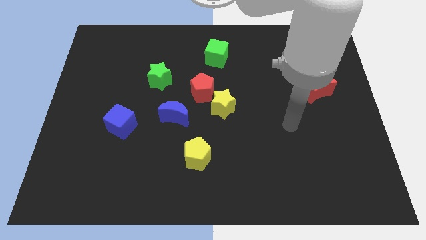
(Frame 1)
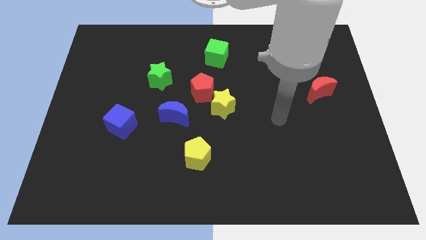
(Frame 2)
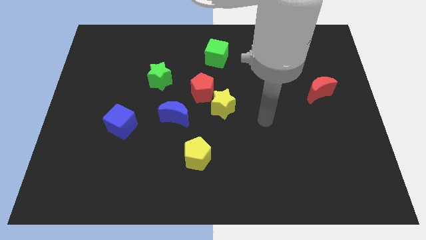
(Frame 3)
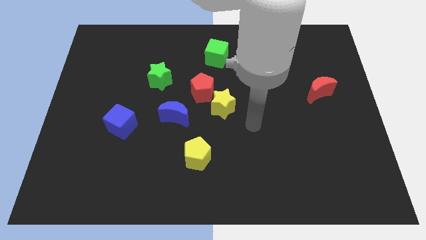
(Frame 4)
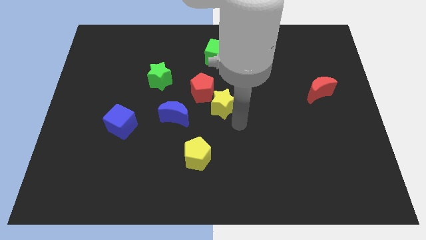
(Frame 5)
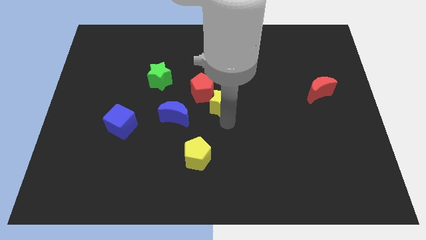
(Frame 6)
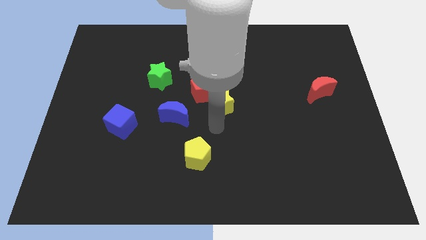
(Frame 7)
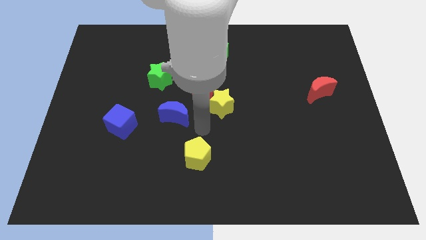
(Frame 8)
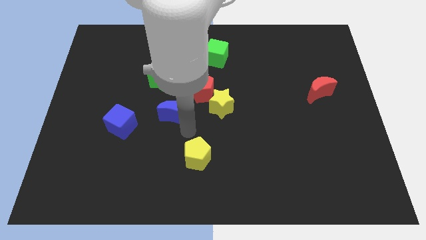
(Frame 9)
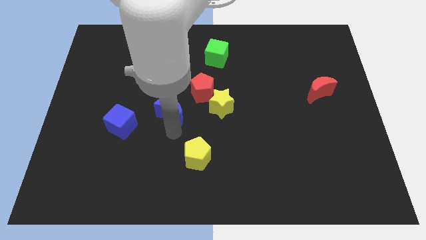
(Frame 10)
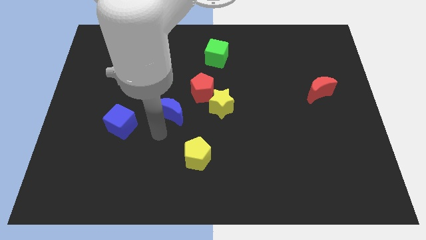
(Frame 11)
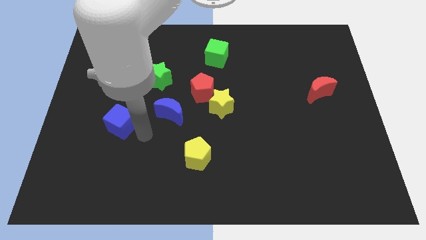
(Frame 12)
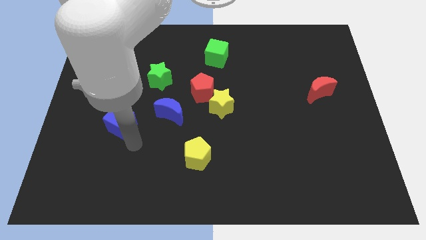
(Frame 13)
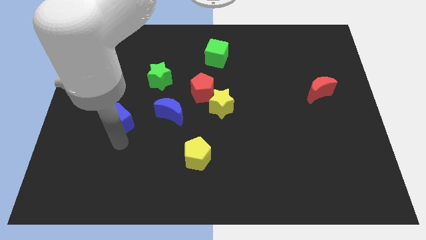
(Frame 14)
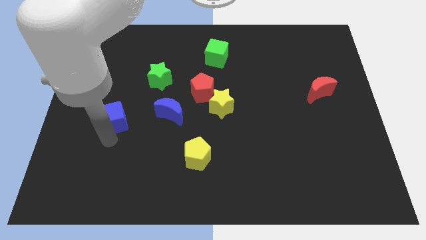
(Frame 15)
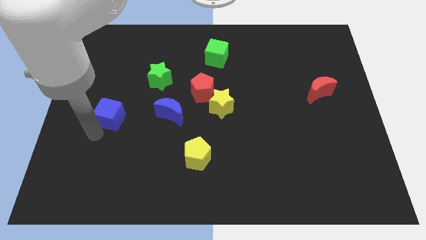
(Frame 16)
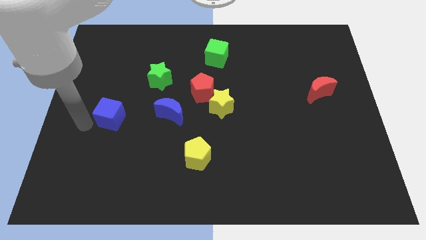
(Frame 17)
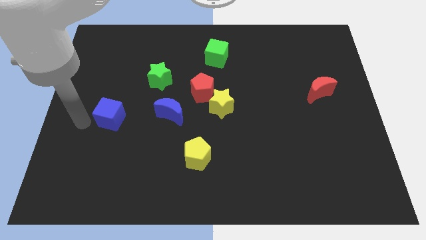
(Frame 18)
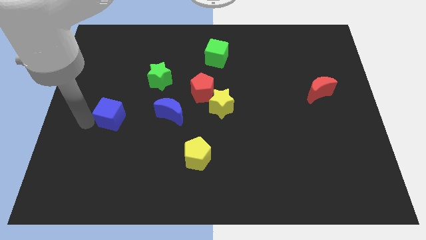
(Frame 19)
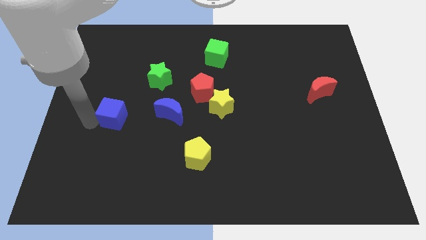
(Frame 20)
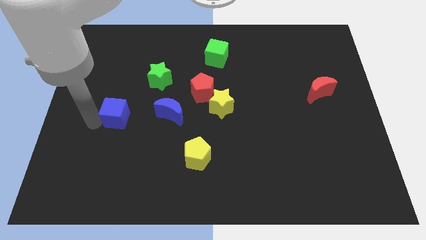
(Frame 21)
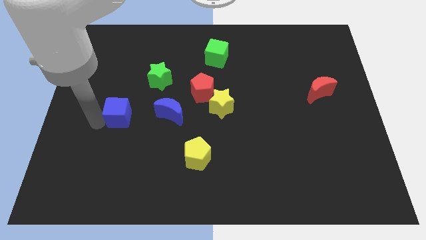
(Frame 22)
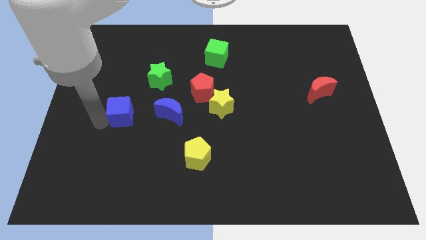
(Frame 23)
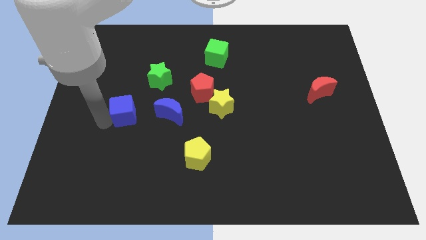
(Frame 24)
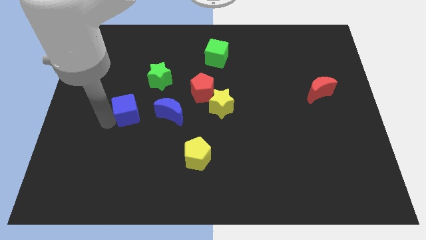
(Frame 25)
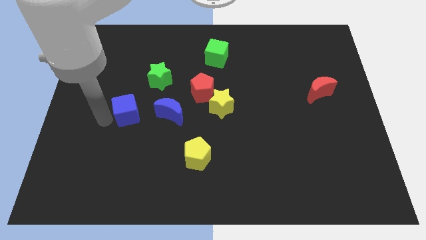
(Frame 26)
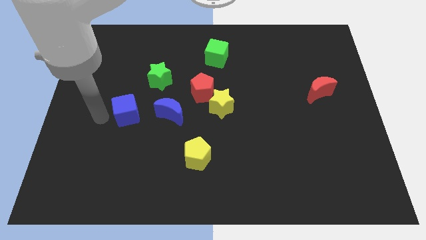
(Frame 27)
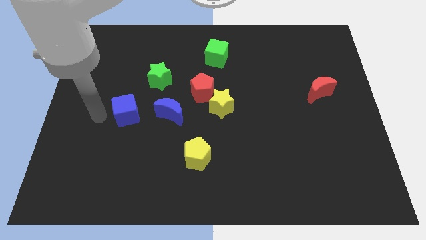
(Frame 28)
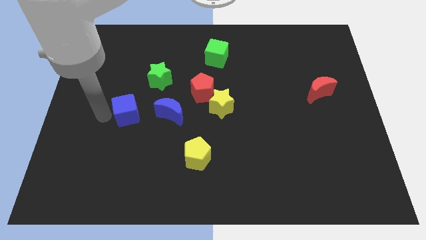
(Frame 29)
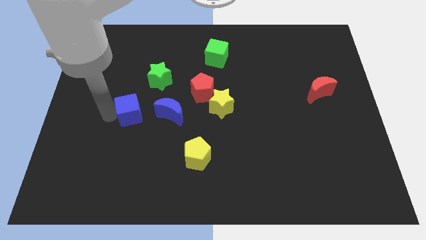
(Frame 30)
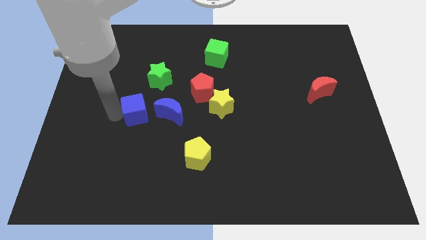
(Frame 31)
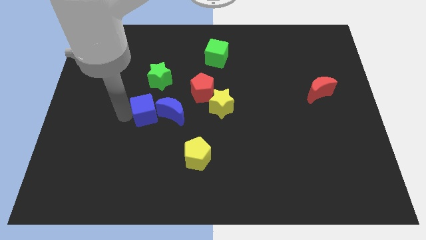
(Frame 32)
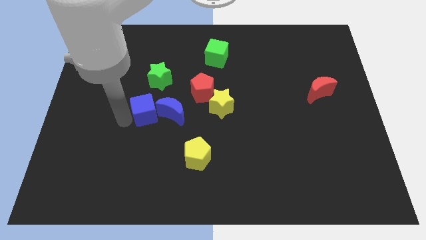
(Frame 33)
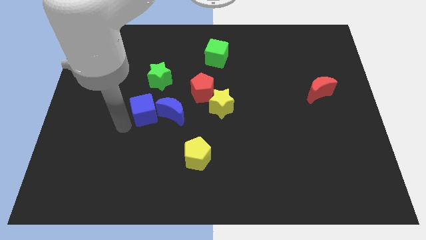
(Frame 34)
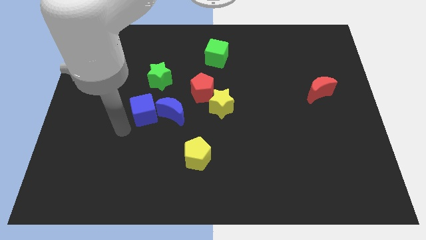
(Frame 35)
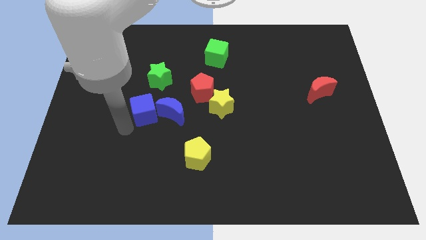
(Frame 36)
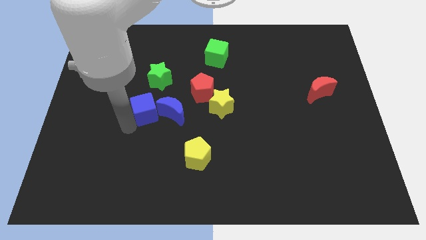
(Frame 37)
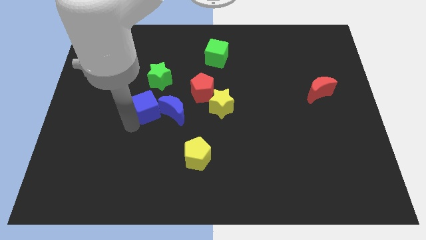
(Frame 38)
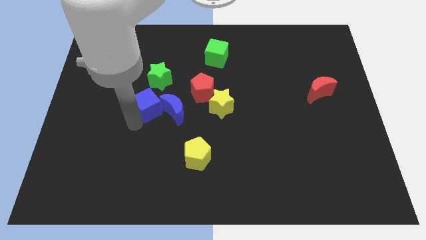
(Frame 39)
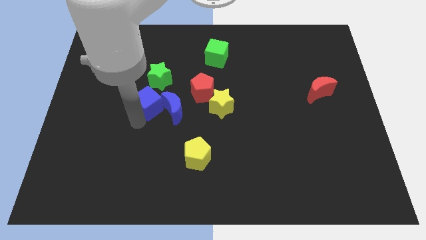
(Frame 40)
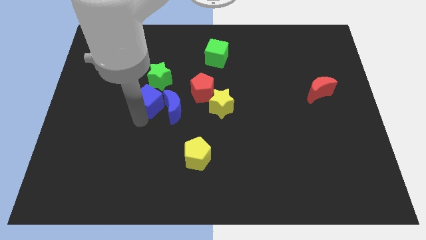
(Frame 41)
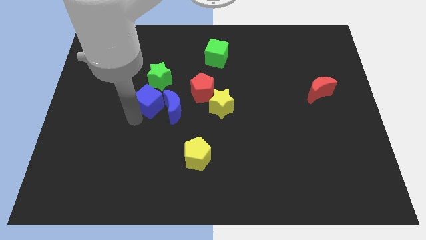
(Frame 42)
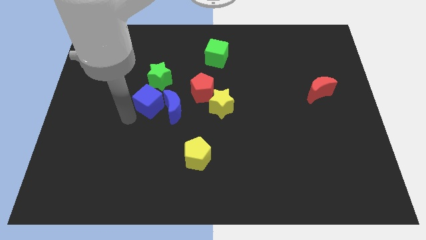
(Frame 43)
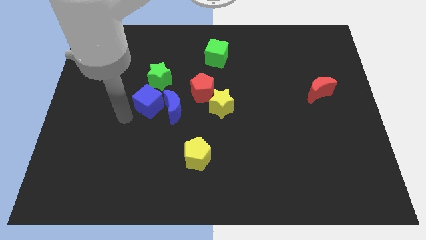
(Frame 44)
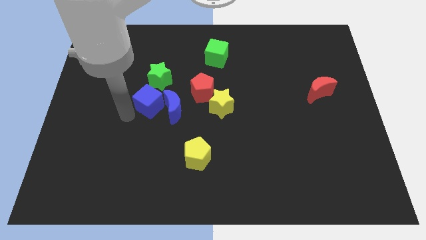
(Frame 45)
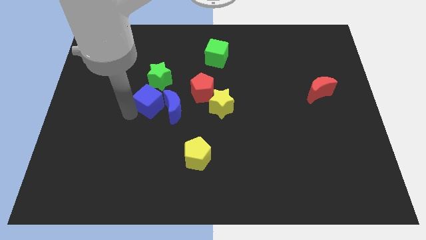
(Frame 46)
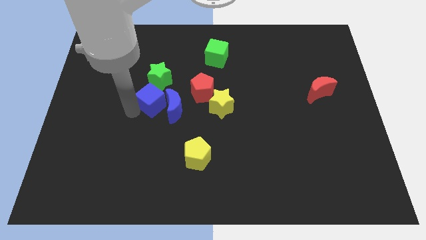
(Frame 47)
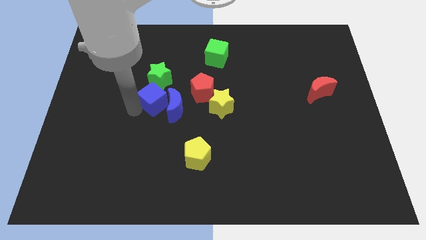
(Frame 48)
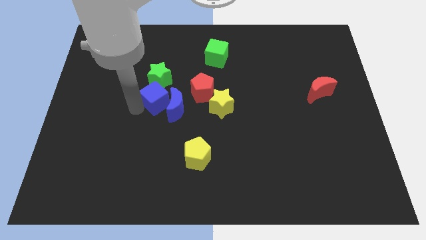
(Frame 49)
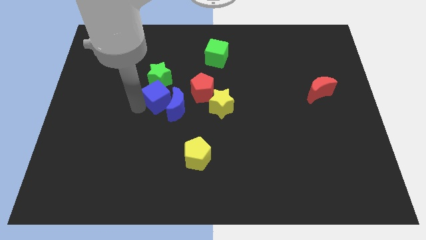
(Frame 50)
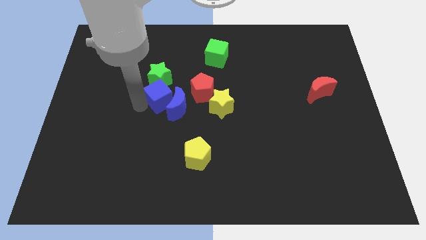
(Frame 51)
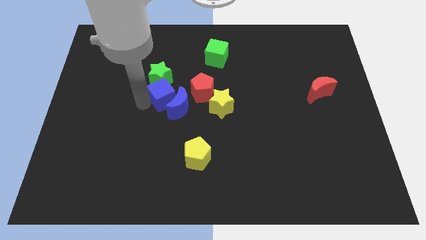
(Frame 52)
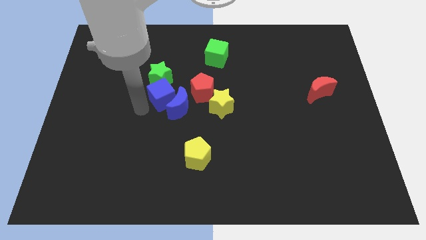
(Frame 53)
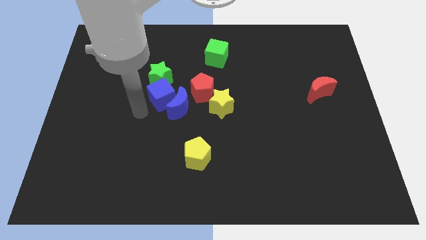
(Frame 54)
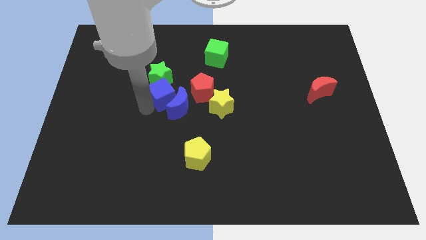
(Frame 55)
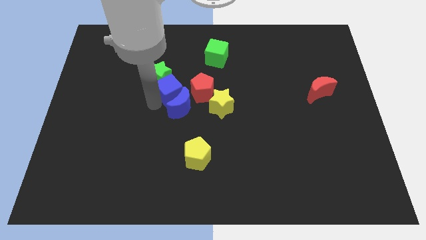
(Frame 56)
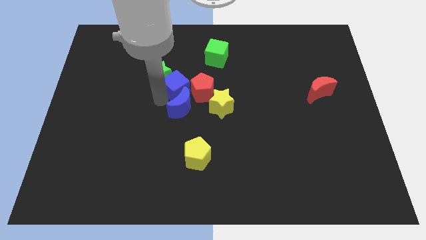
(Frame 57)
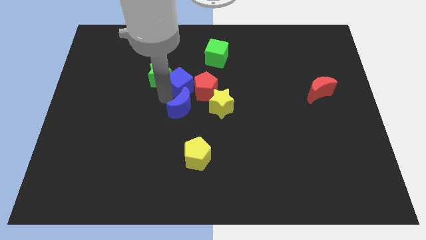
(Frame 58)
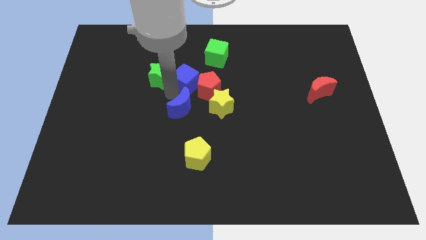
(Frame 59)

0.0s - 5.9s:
push the blue cube to the bottom left of the green cube
